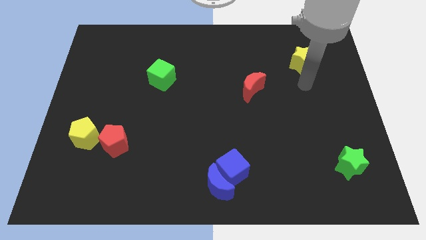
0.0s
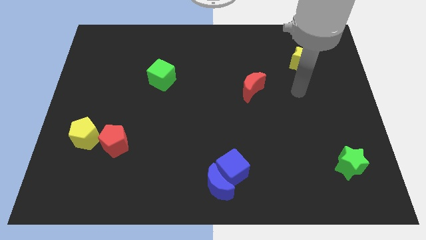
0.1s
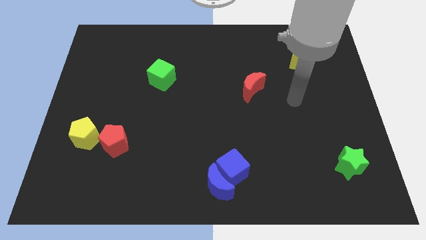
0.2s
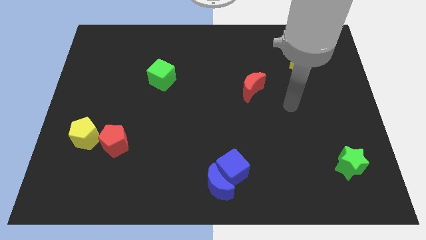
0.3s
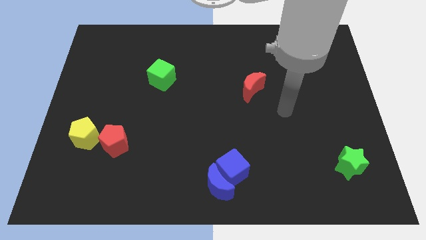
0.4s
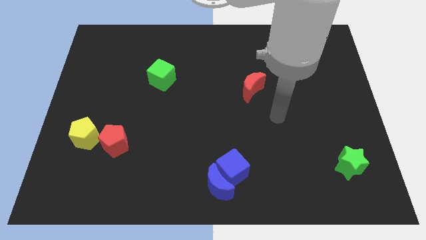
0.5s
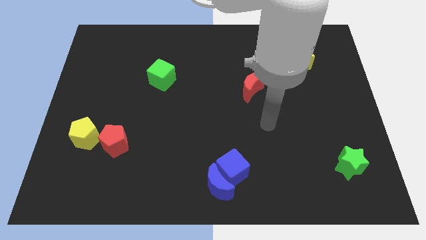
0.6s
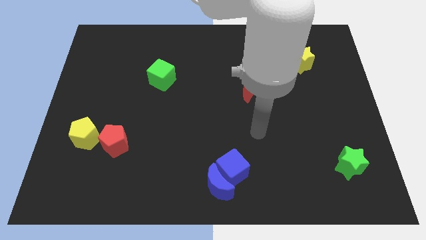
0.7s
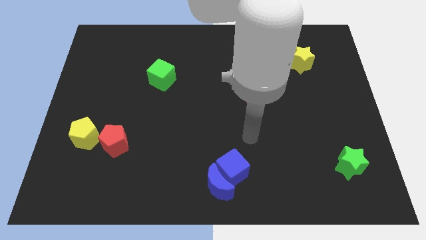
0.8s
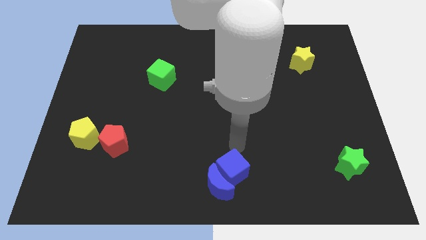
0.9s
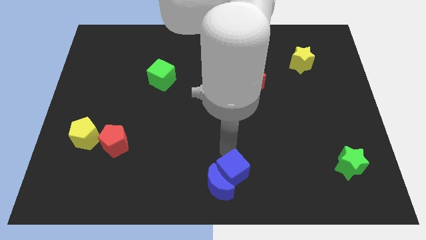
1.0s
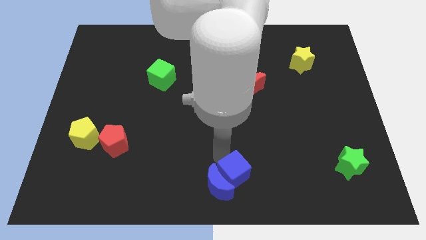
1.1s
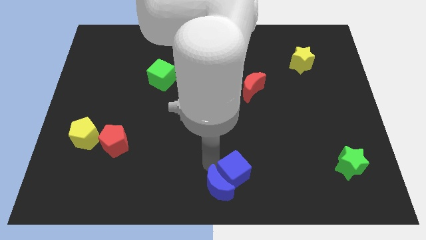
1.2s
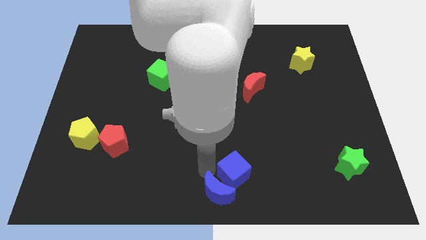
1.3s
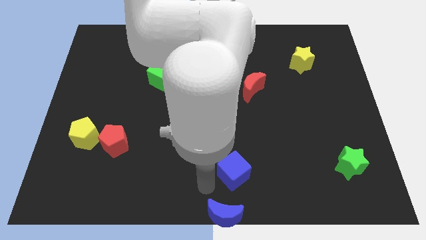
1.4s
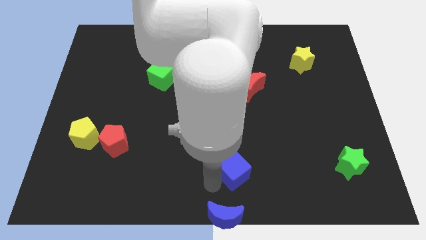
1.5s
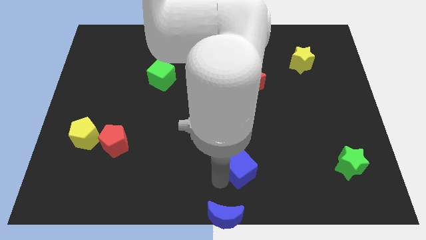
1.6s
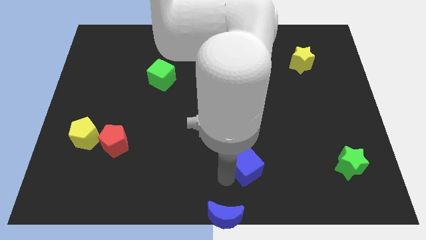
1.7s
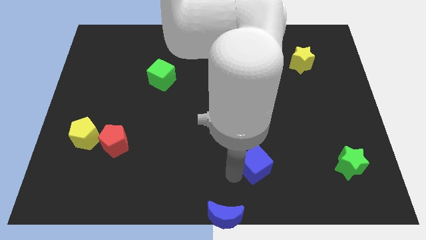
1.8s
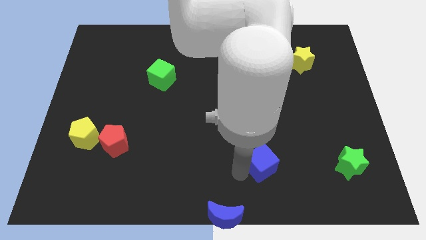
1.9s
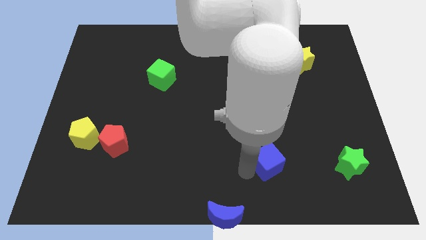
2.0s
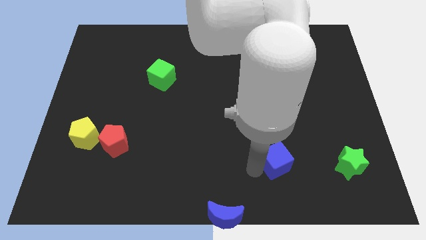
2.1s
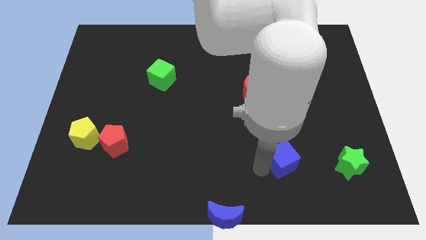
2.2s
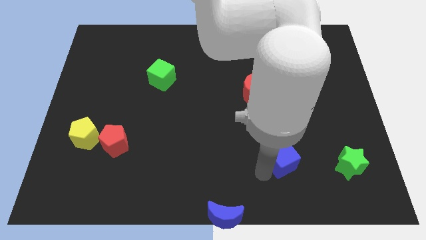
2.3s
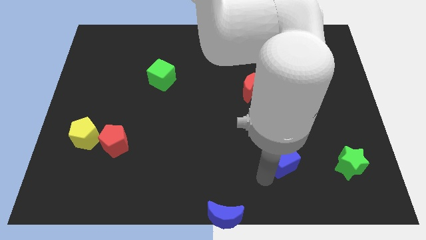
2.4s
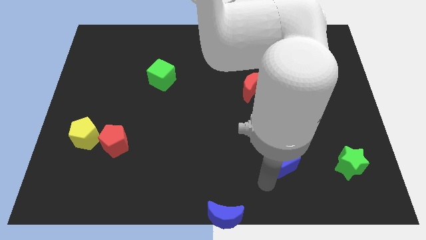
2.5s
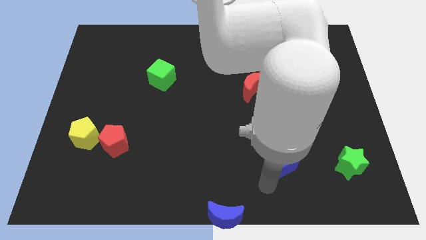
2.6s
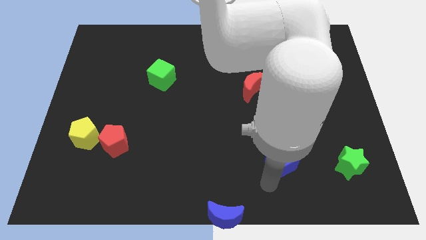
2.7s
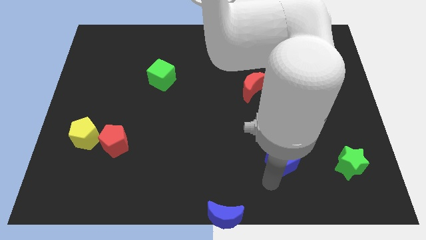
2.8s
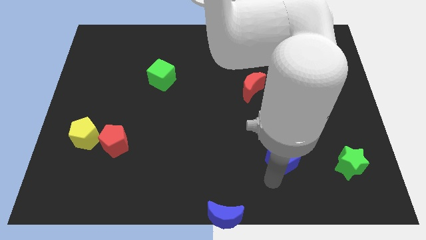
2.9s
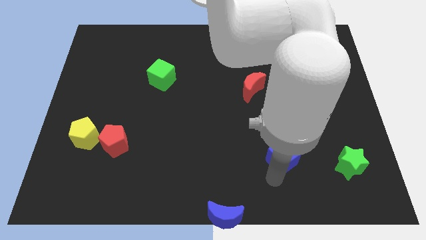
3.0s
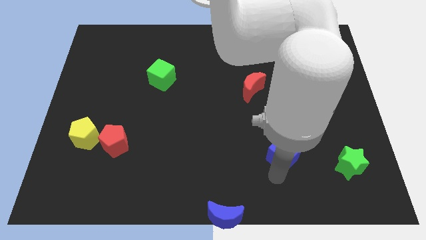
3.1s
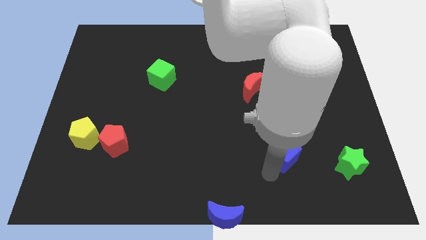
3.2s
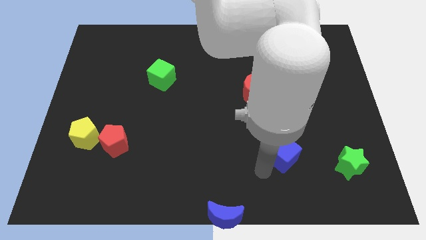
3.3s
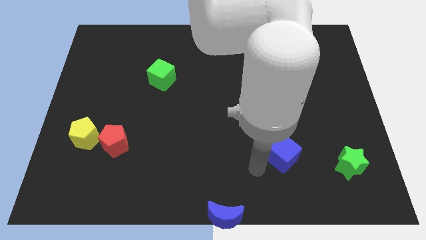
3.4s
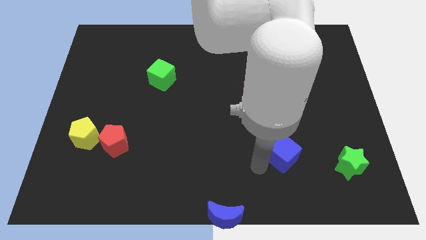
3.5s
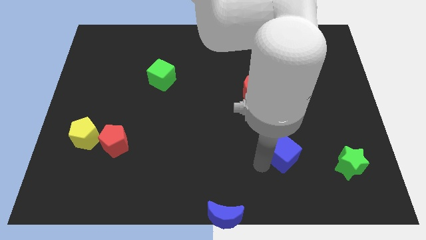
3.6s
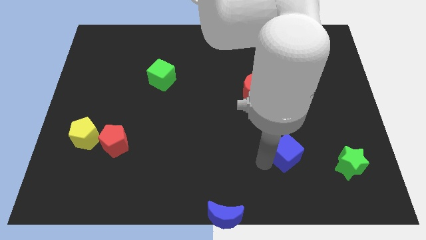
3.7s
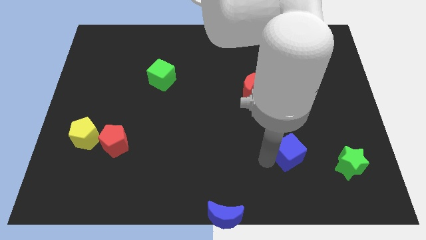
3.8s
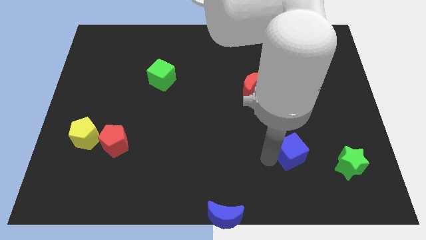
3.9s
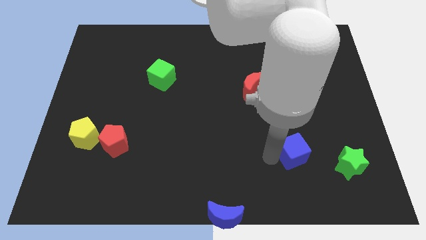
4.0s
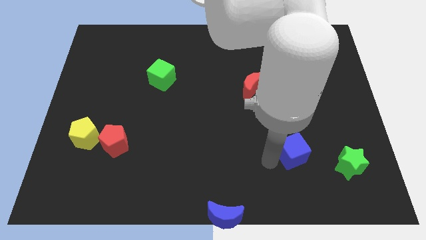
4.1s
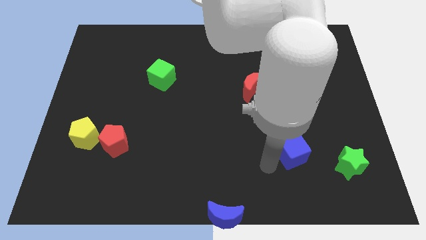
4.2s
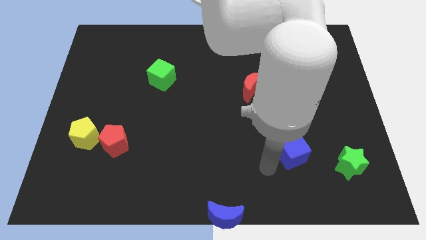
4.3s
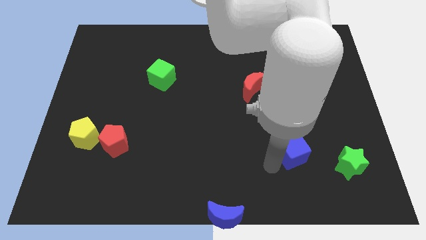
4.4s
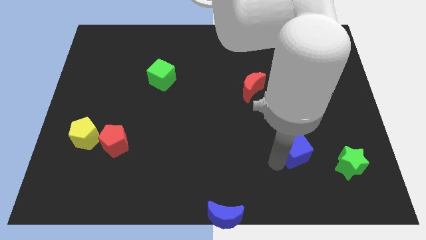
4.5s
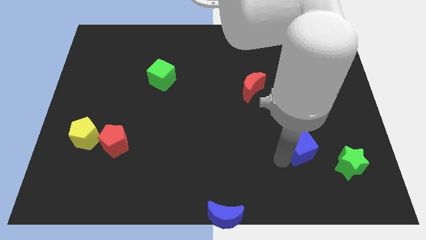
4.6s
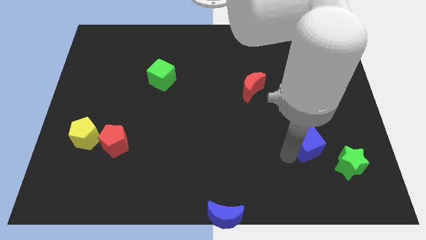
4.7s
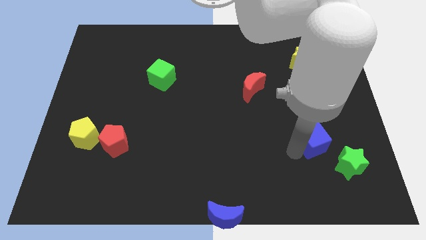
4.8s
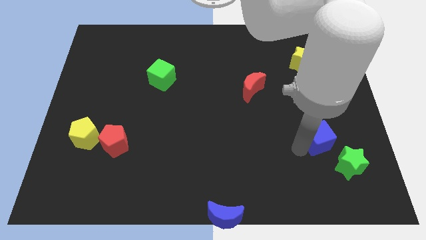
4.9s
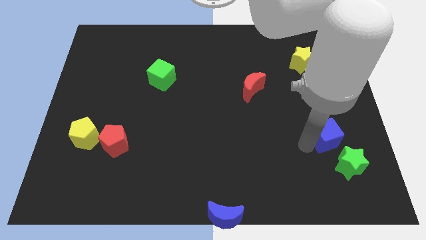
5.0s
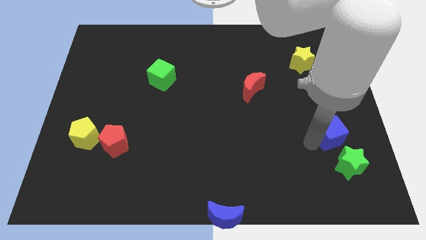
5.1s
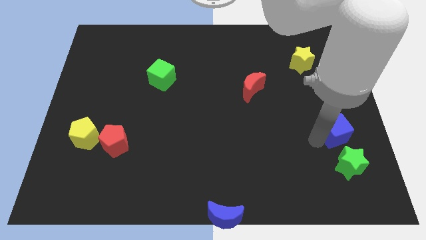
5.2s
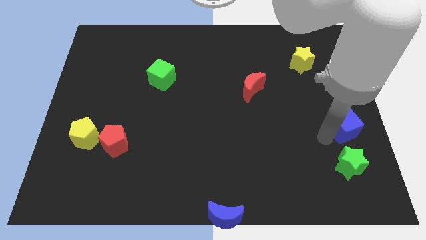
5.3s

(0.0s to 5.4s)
push the blue cube to the right side of the board

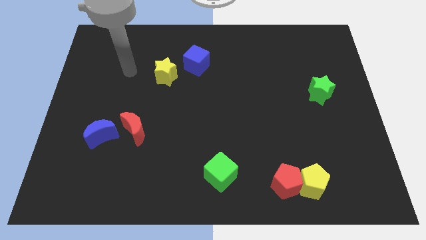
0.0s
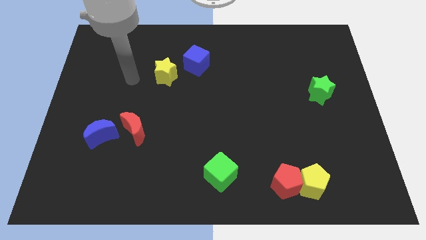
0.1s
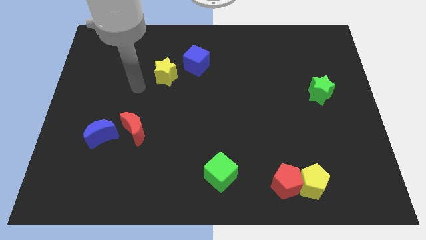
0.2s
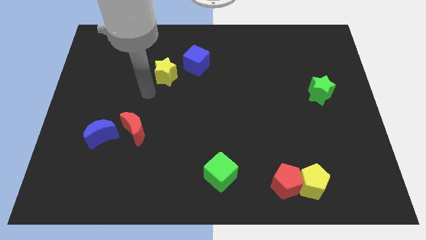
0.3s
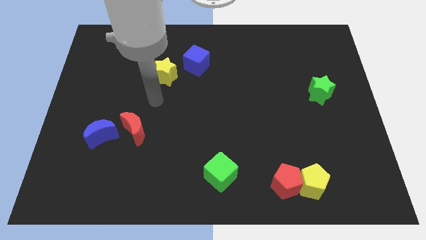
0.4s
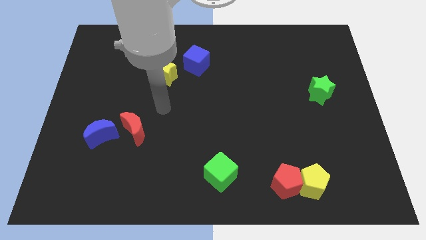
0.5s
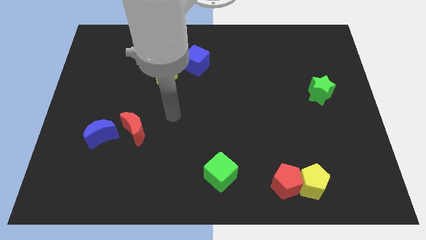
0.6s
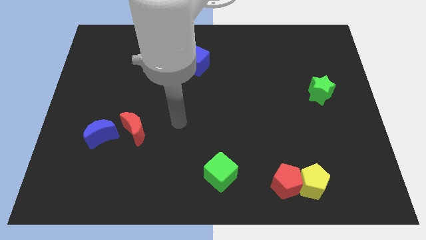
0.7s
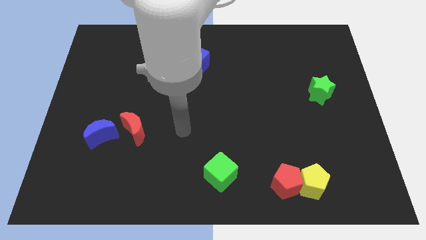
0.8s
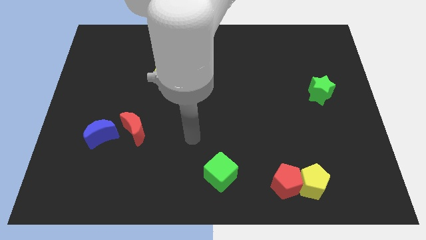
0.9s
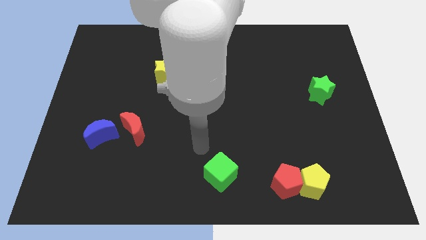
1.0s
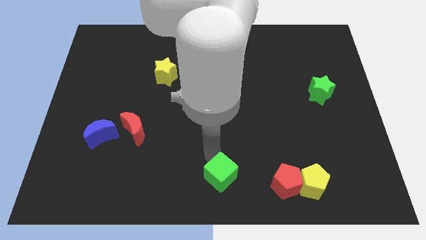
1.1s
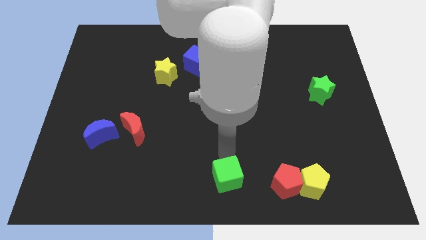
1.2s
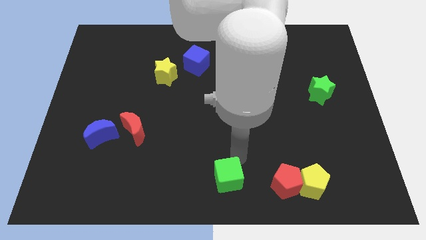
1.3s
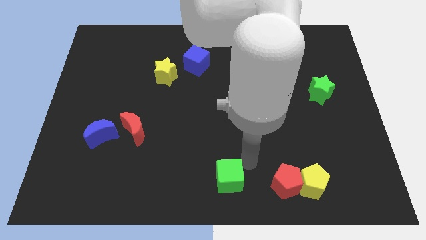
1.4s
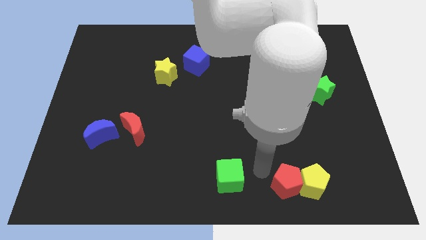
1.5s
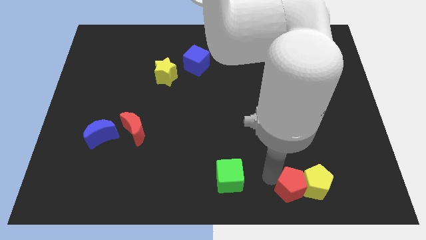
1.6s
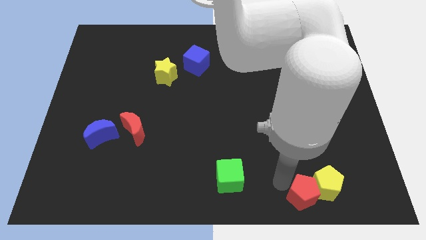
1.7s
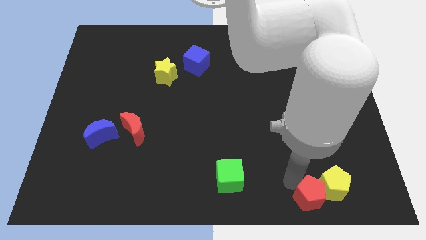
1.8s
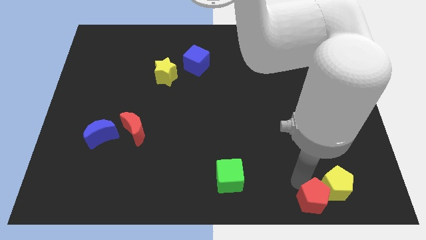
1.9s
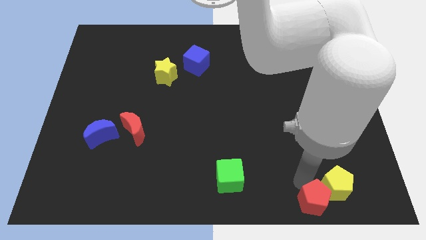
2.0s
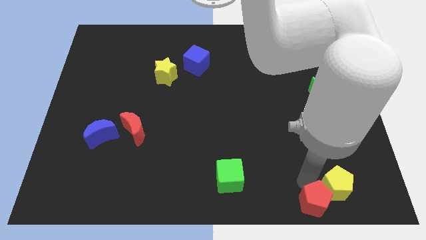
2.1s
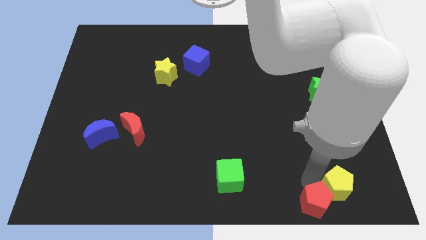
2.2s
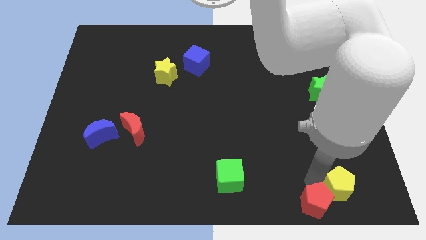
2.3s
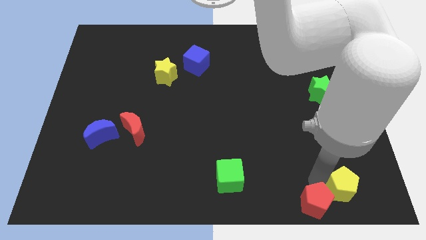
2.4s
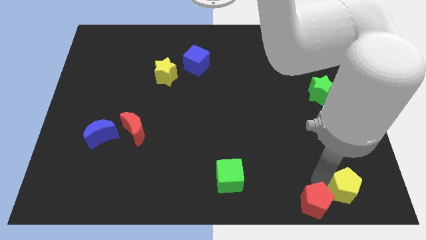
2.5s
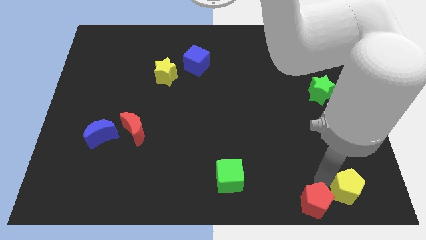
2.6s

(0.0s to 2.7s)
slide the yellow pentagon to the bottom right of the board
